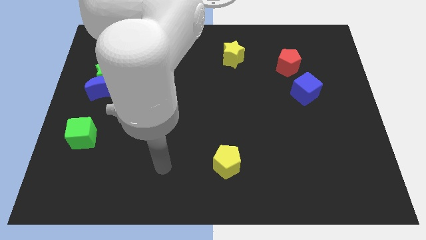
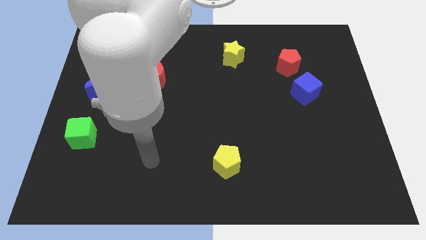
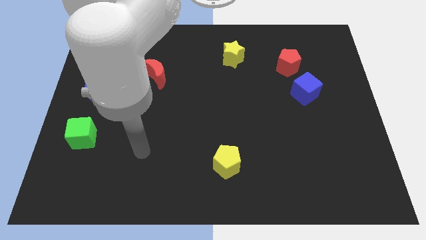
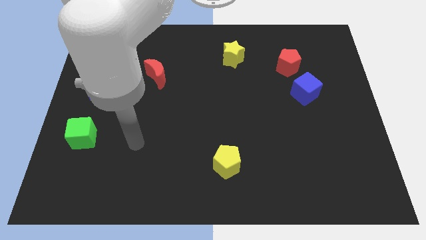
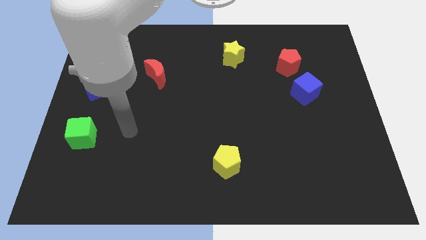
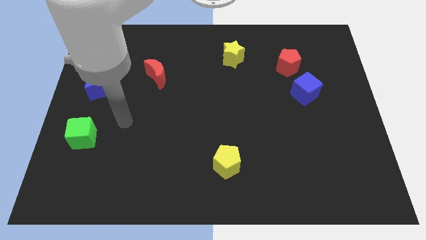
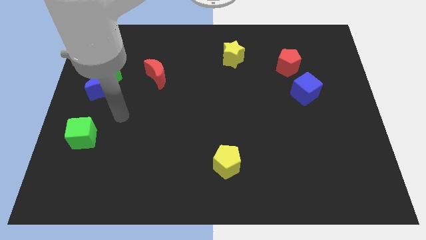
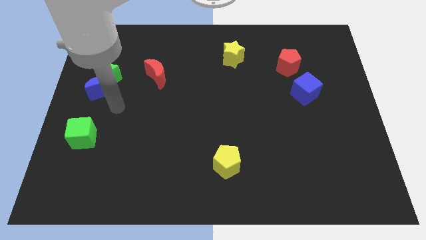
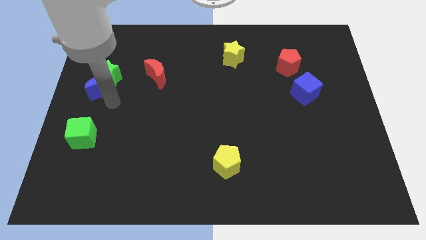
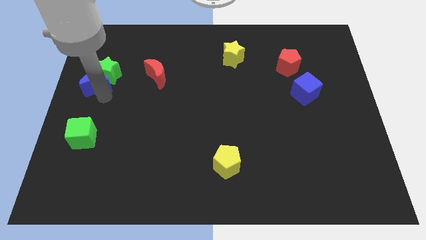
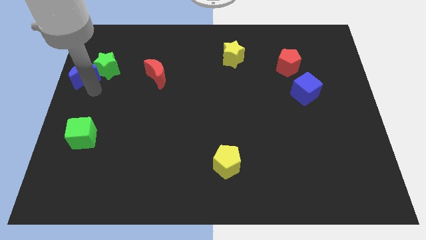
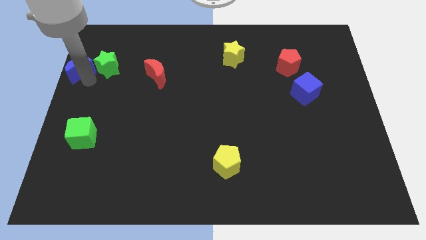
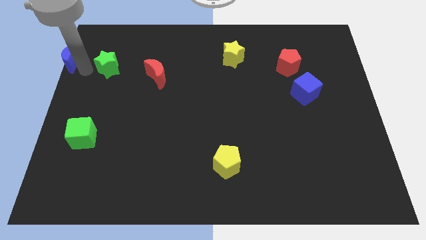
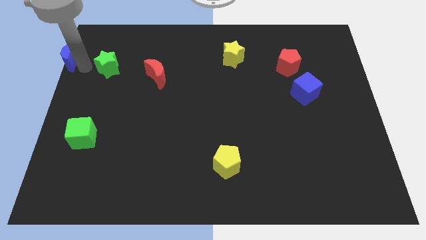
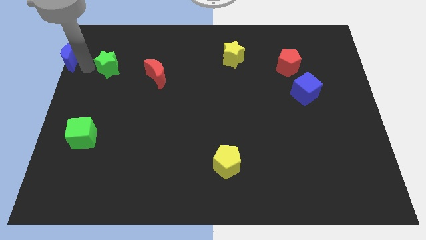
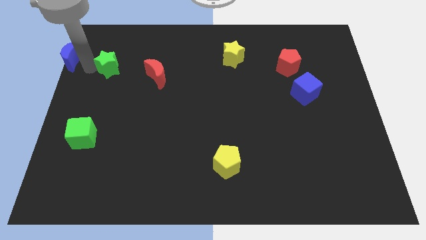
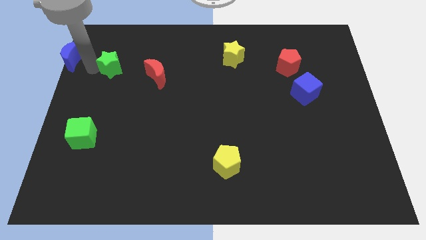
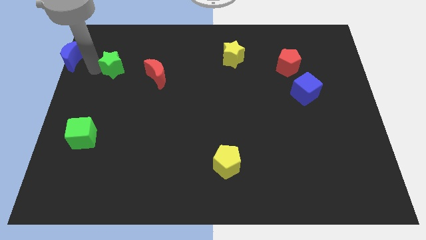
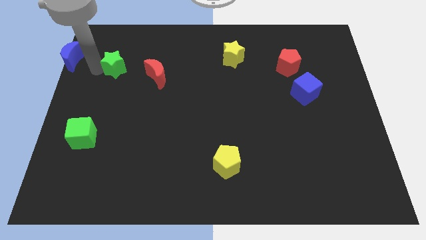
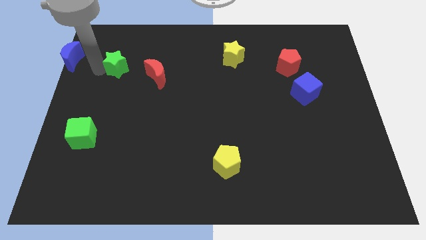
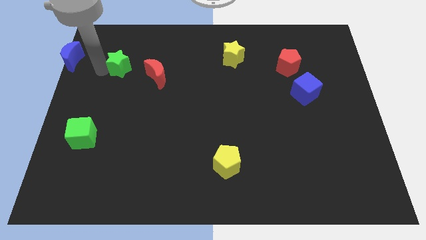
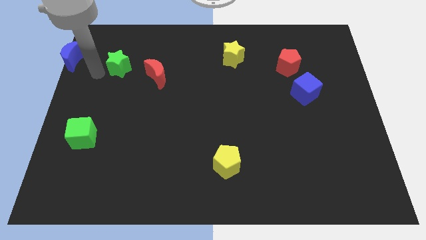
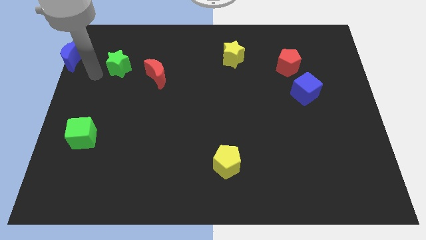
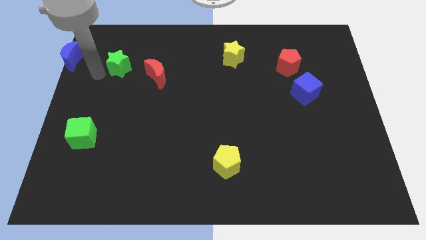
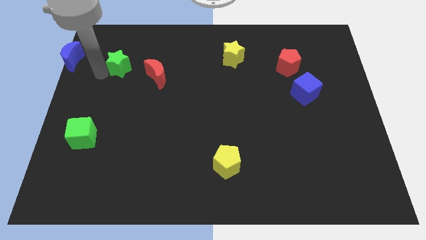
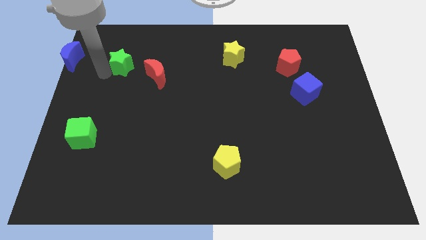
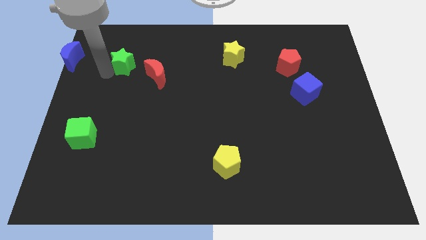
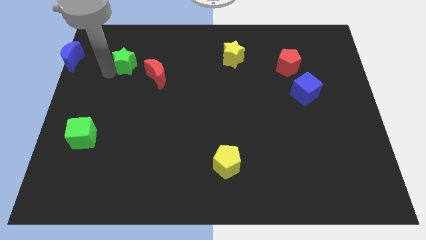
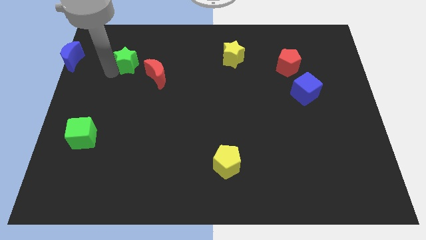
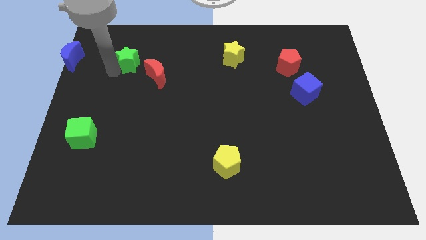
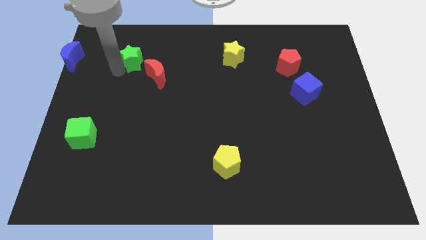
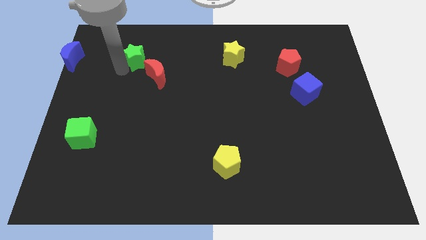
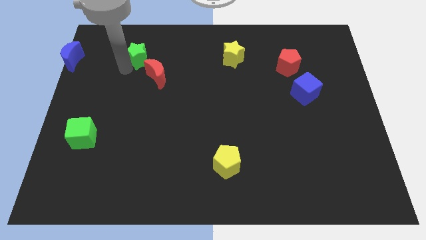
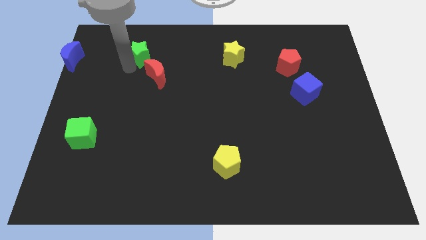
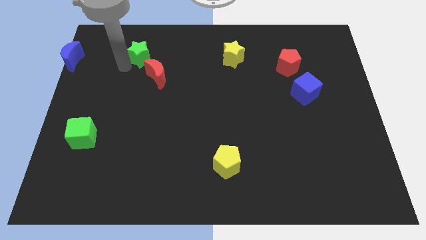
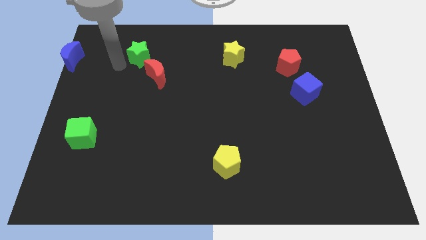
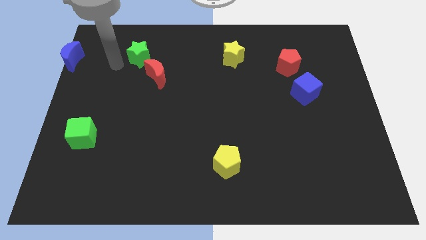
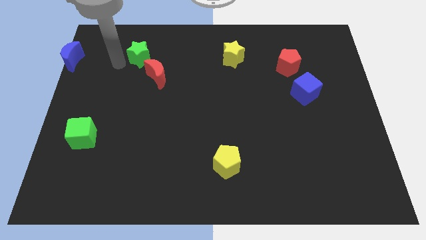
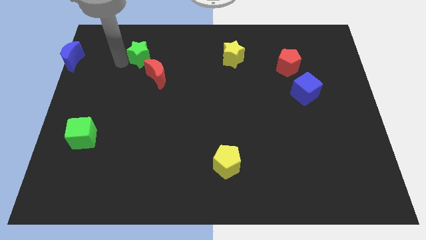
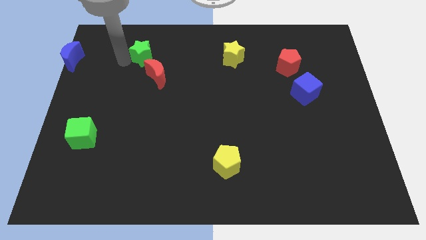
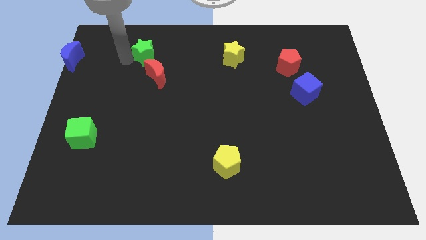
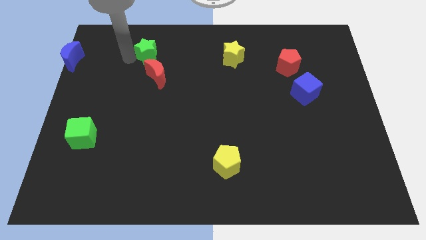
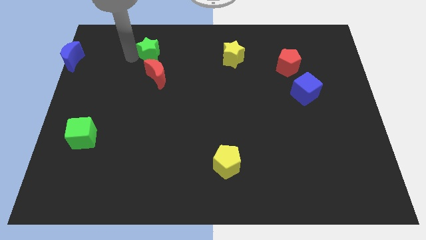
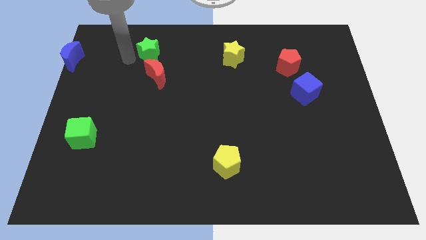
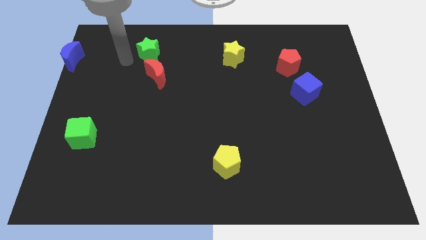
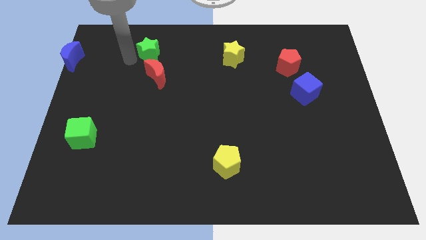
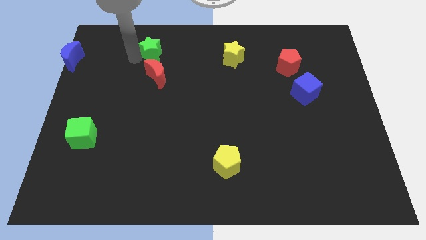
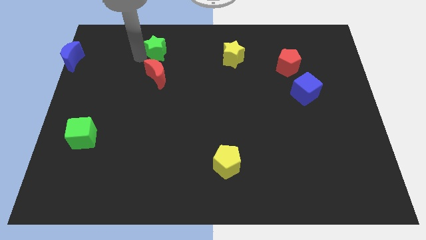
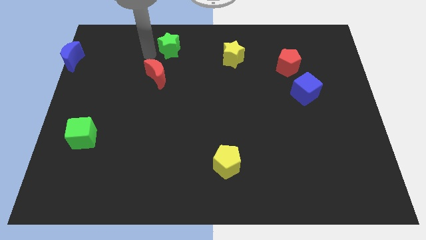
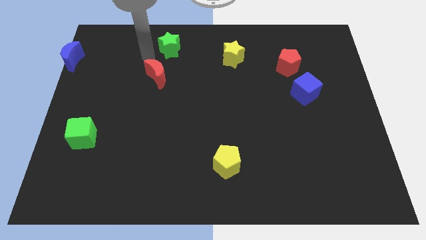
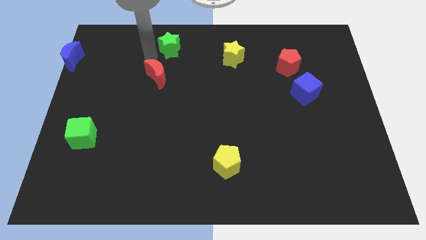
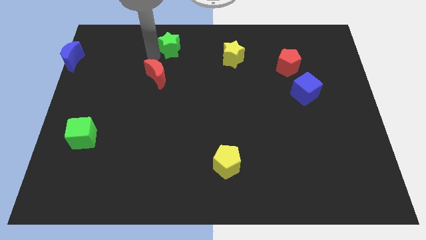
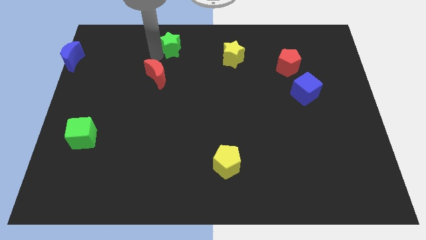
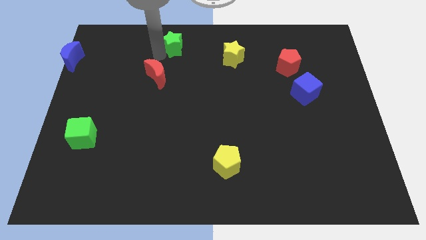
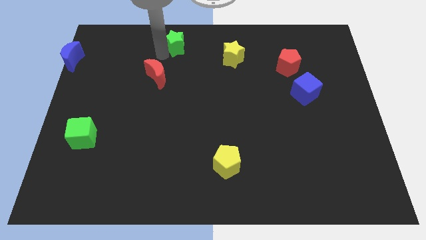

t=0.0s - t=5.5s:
put the green star to the top side

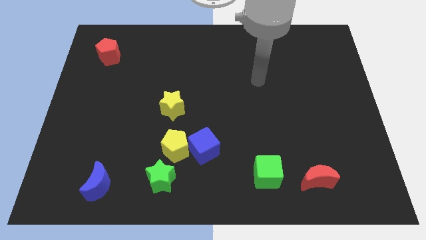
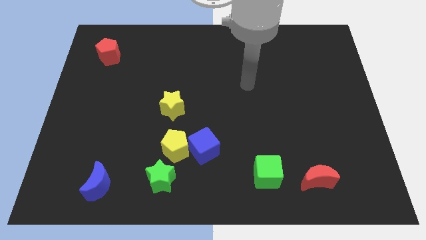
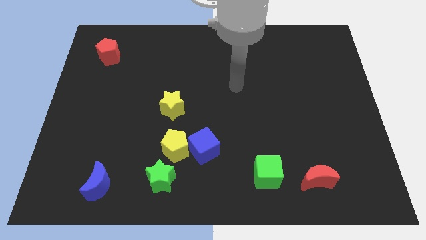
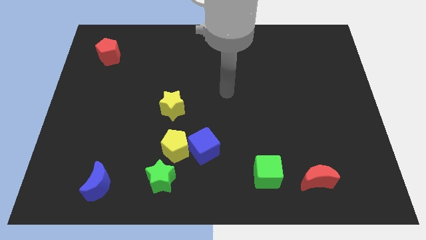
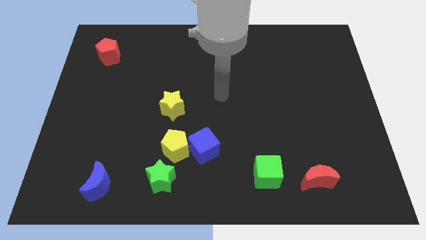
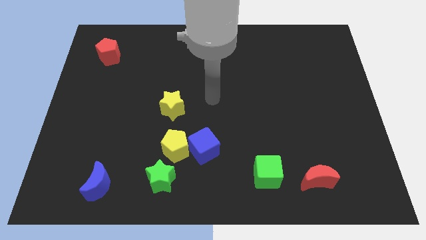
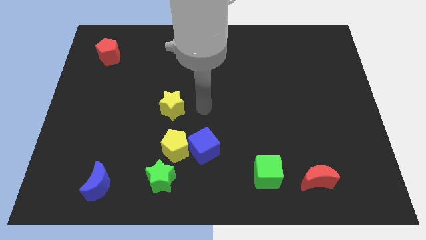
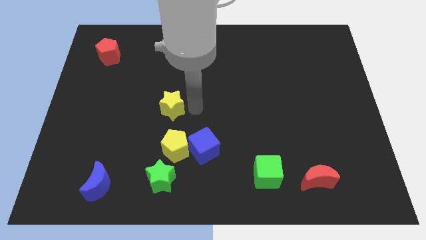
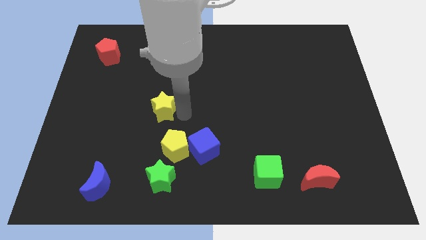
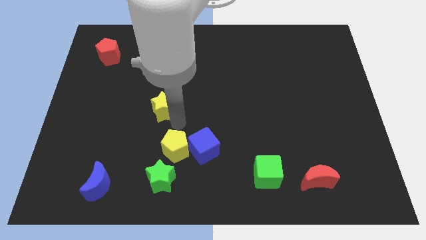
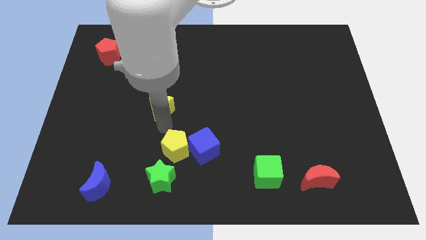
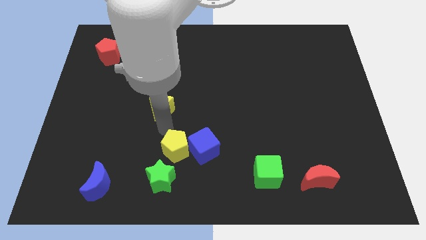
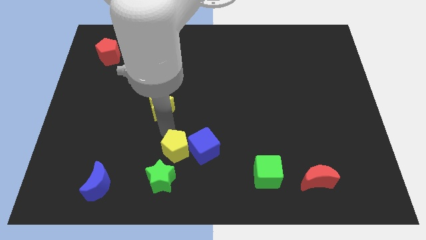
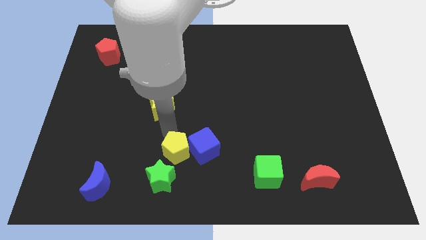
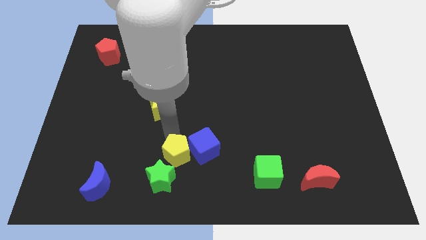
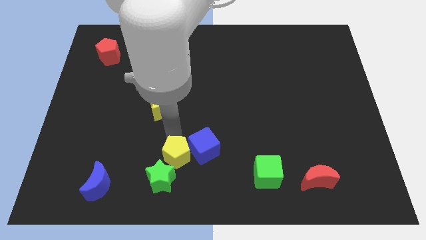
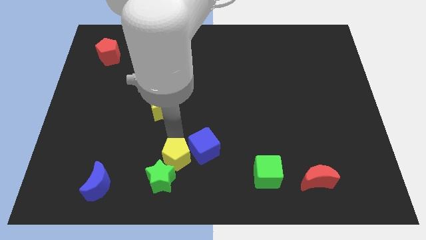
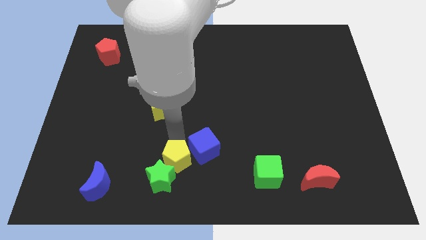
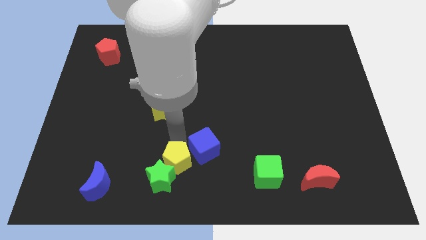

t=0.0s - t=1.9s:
slide the yellow pentagon to the bottom side
